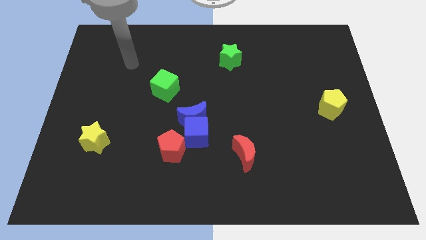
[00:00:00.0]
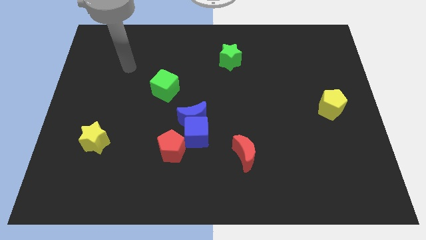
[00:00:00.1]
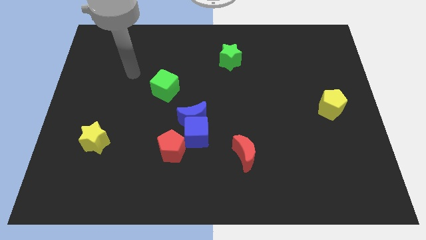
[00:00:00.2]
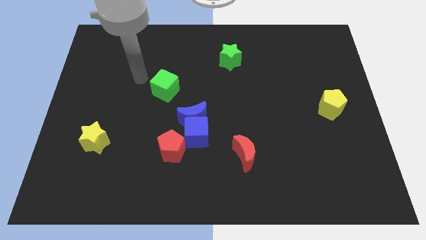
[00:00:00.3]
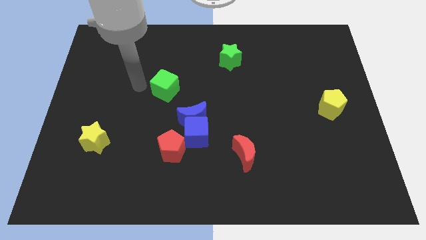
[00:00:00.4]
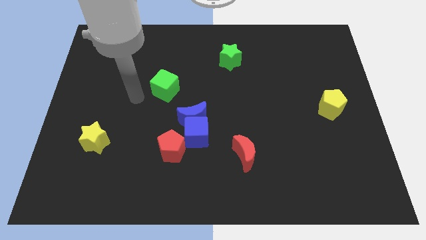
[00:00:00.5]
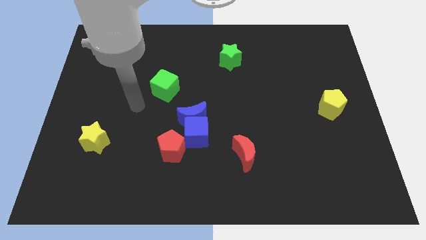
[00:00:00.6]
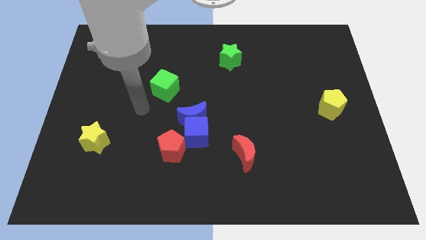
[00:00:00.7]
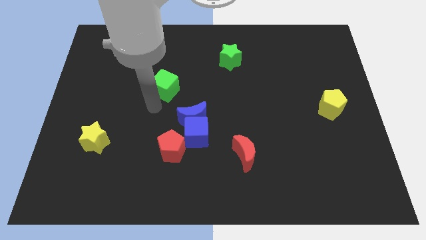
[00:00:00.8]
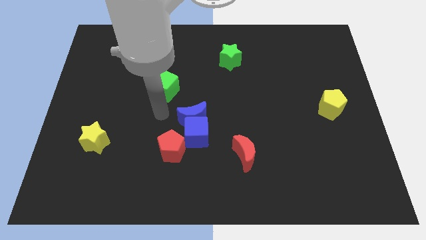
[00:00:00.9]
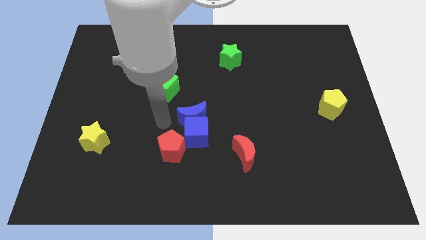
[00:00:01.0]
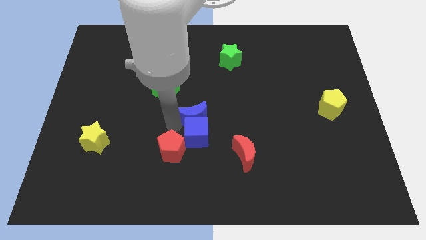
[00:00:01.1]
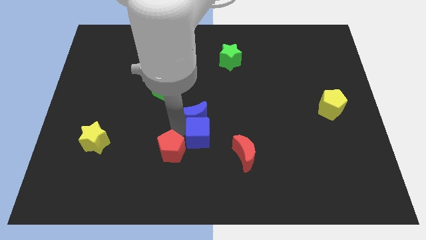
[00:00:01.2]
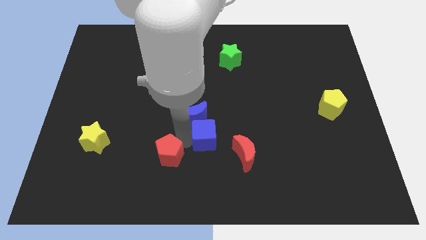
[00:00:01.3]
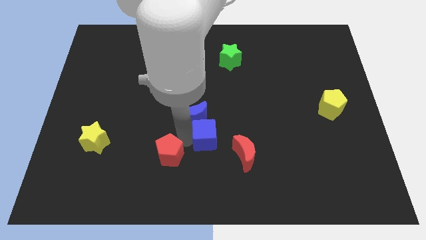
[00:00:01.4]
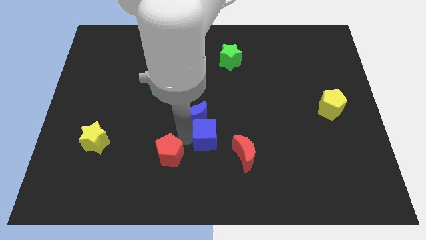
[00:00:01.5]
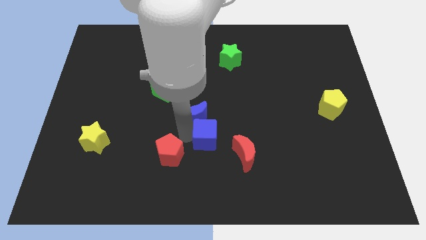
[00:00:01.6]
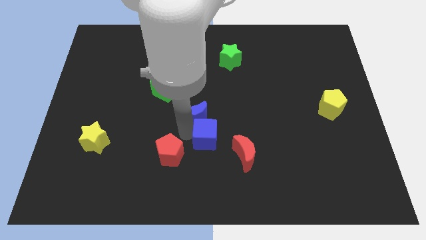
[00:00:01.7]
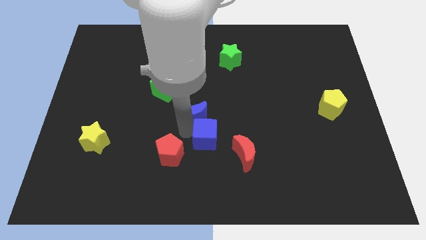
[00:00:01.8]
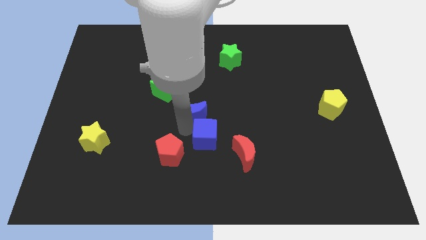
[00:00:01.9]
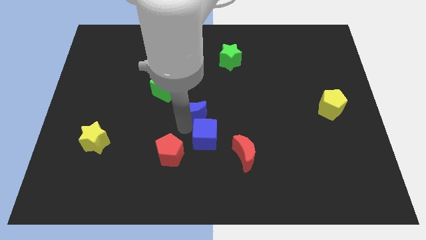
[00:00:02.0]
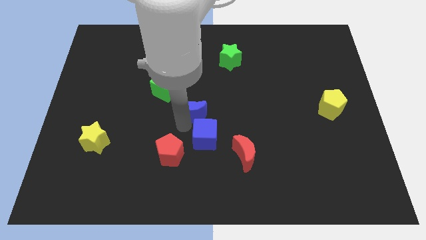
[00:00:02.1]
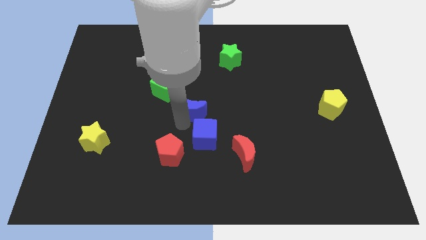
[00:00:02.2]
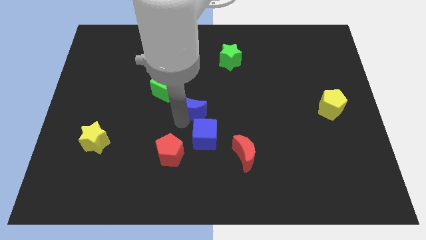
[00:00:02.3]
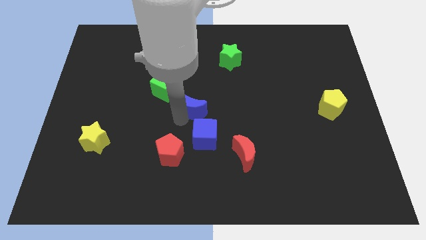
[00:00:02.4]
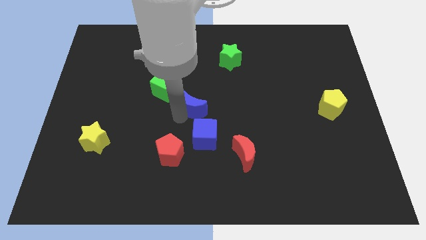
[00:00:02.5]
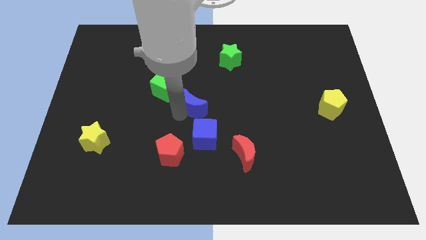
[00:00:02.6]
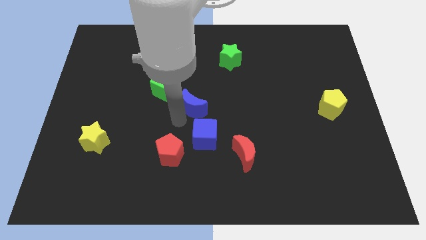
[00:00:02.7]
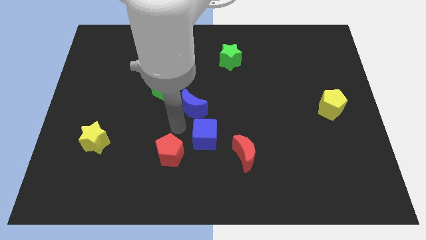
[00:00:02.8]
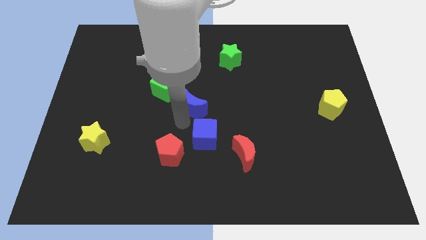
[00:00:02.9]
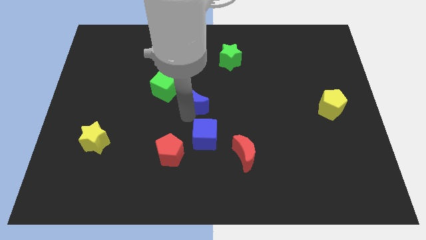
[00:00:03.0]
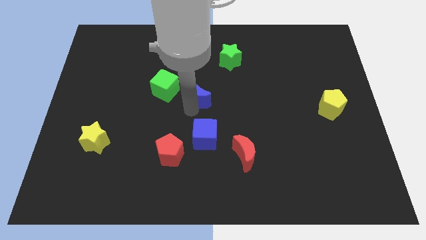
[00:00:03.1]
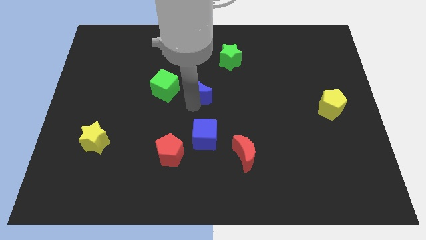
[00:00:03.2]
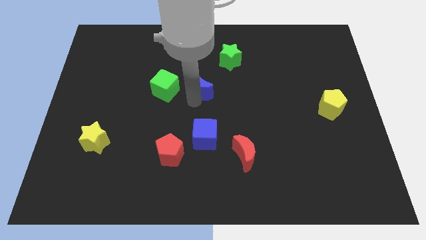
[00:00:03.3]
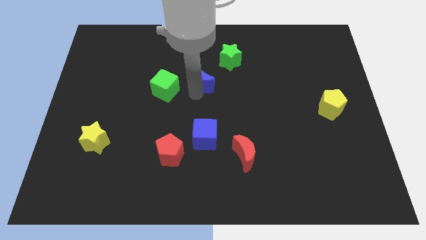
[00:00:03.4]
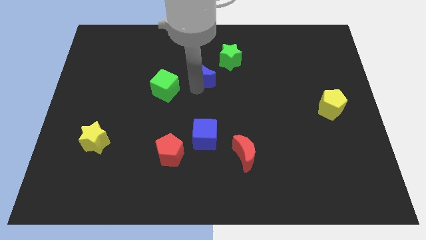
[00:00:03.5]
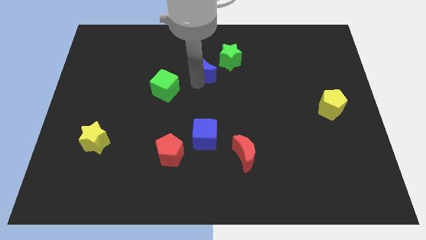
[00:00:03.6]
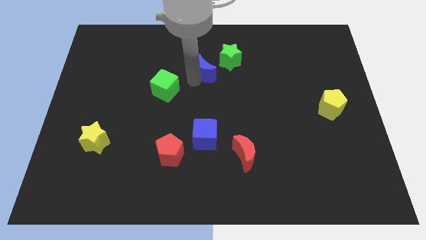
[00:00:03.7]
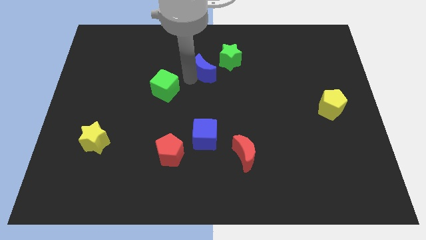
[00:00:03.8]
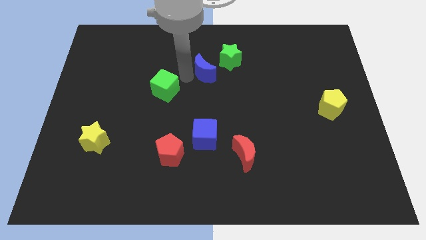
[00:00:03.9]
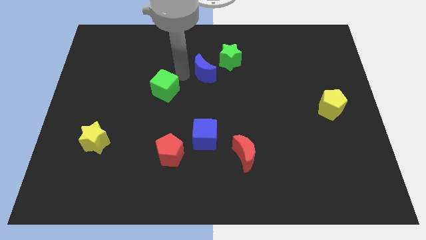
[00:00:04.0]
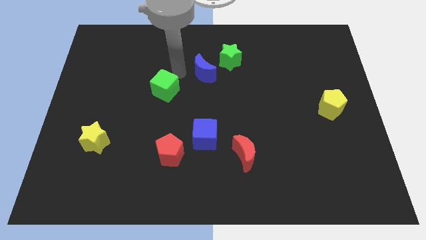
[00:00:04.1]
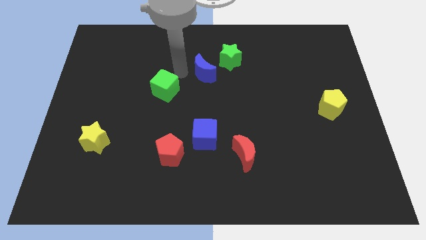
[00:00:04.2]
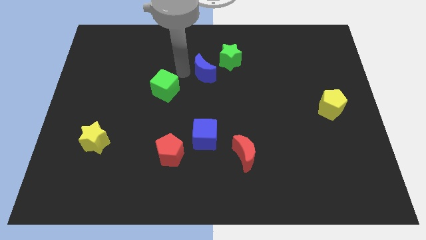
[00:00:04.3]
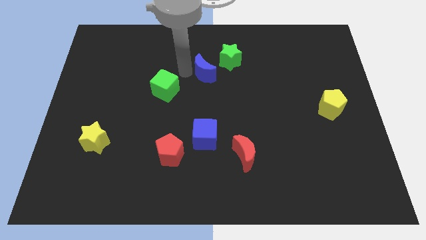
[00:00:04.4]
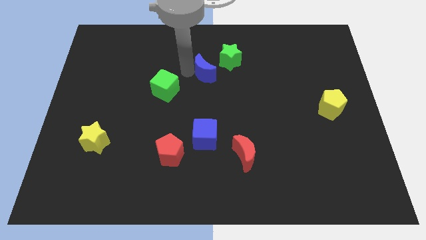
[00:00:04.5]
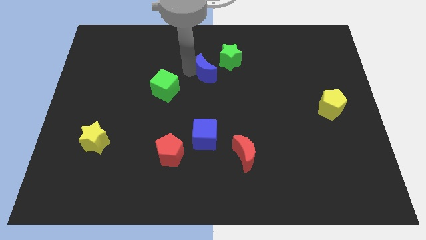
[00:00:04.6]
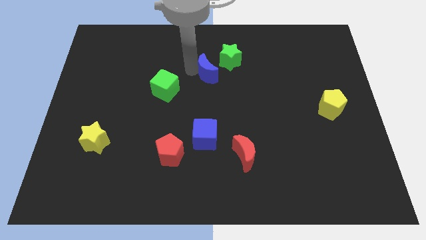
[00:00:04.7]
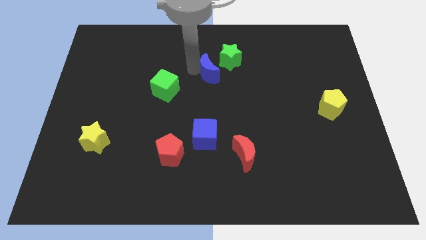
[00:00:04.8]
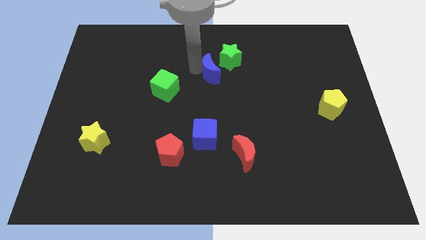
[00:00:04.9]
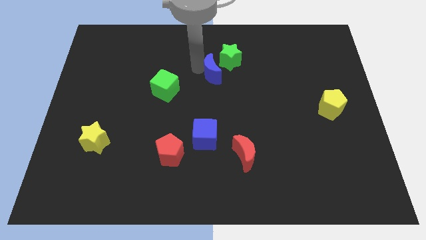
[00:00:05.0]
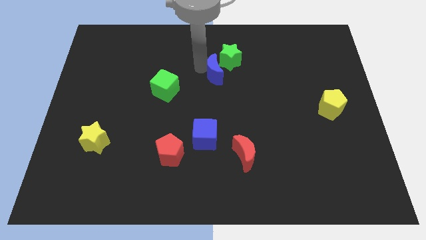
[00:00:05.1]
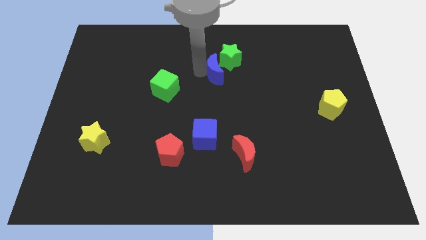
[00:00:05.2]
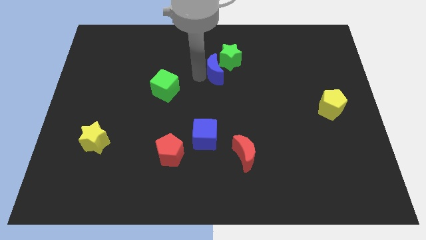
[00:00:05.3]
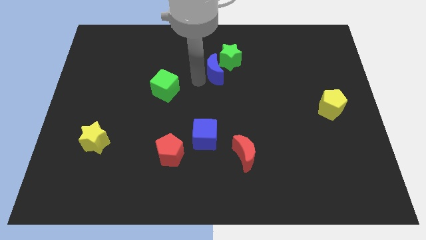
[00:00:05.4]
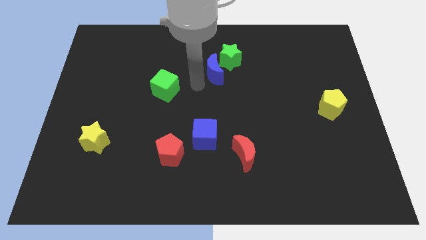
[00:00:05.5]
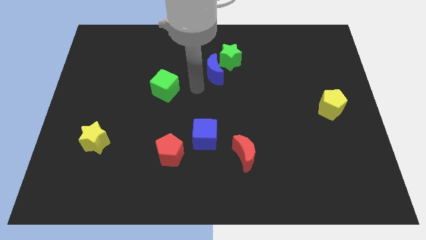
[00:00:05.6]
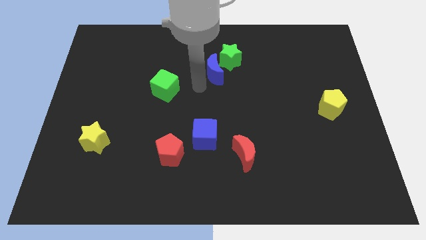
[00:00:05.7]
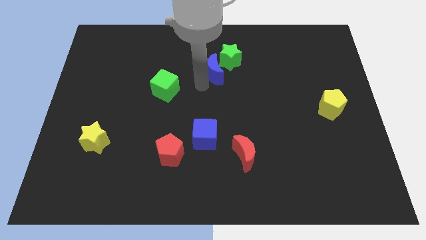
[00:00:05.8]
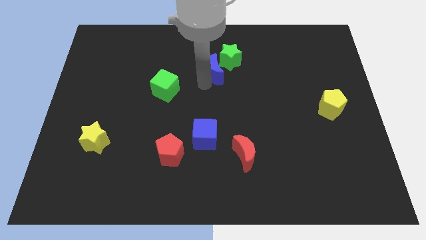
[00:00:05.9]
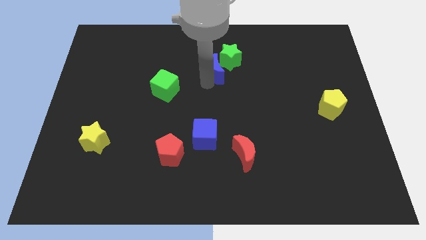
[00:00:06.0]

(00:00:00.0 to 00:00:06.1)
move the blue moon next to the green star

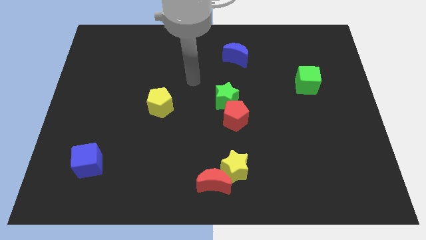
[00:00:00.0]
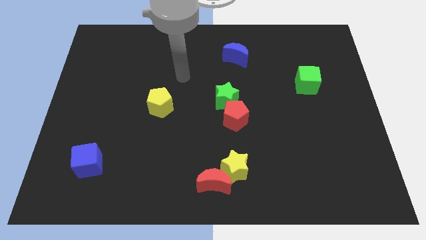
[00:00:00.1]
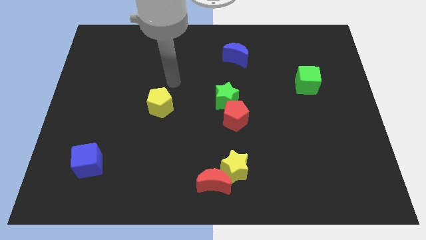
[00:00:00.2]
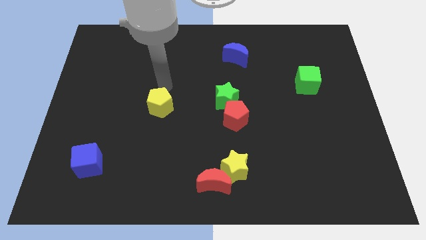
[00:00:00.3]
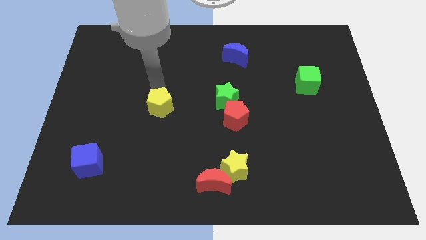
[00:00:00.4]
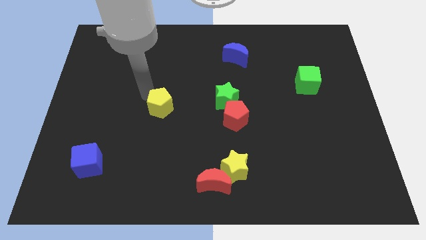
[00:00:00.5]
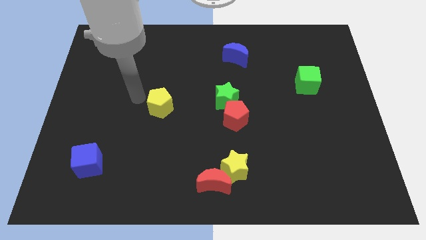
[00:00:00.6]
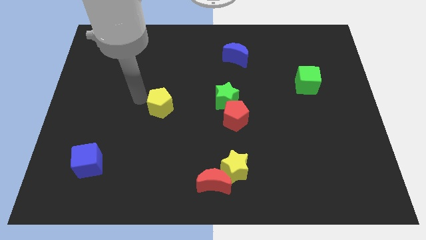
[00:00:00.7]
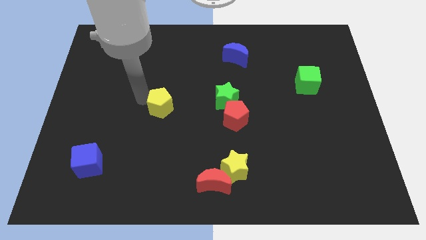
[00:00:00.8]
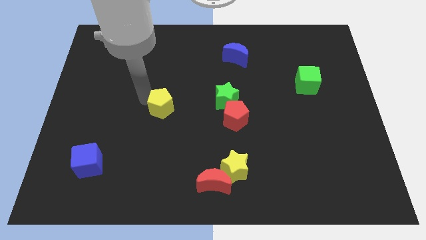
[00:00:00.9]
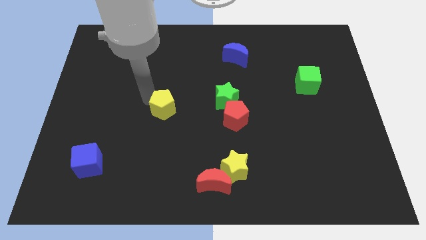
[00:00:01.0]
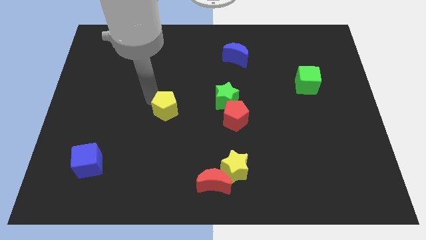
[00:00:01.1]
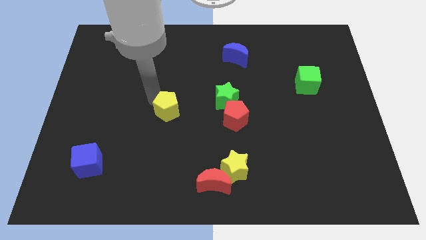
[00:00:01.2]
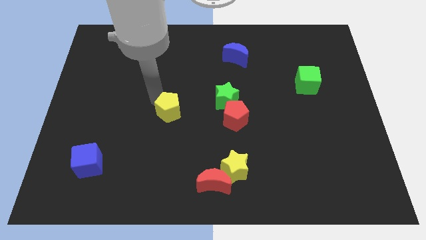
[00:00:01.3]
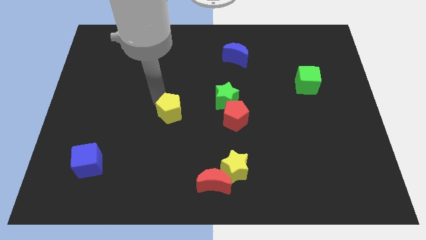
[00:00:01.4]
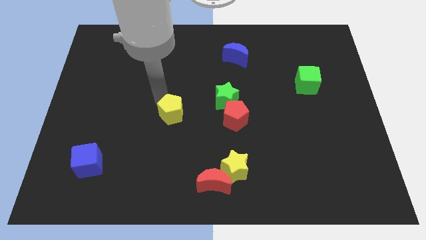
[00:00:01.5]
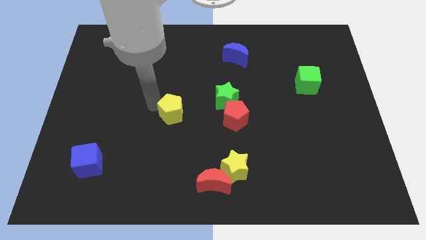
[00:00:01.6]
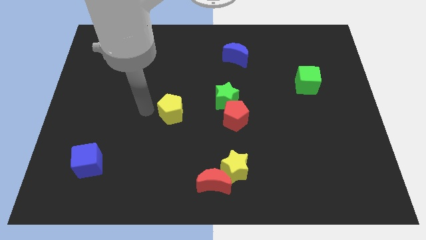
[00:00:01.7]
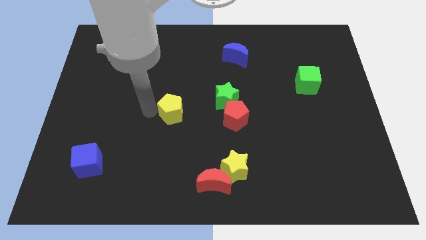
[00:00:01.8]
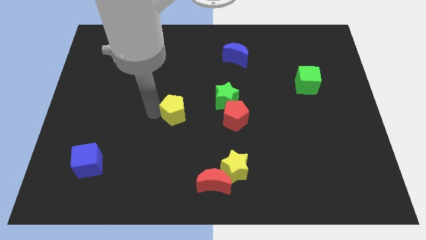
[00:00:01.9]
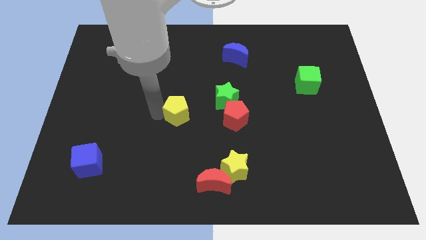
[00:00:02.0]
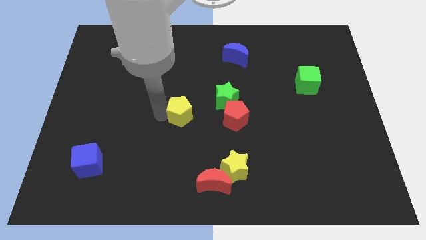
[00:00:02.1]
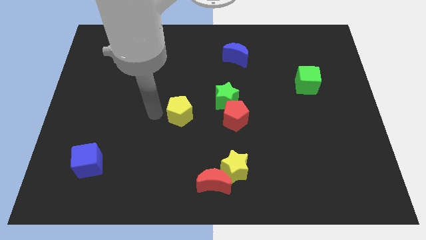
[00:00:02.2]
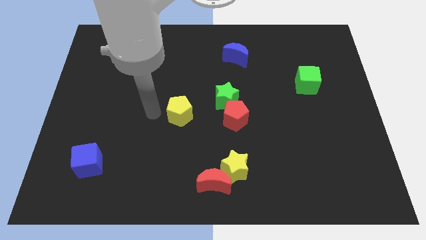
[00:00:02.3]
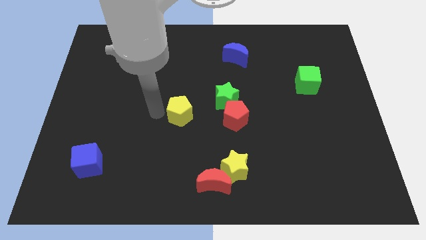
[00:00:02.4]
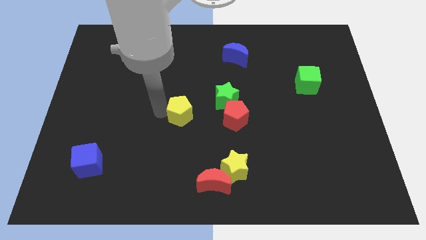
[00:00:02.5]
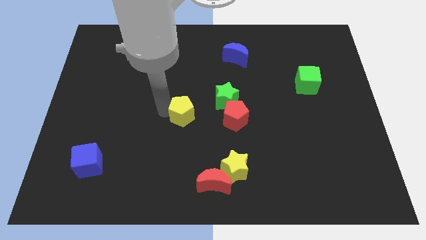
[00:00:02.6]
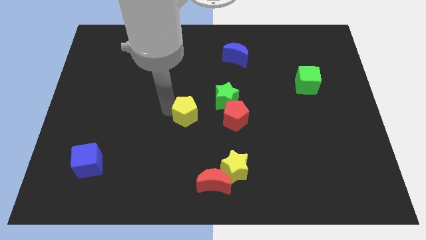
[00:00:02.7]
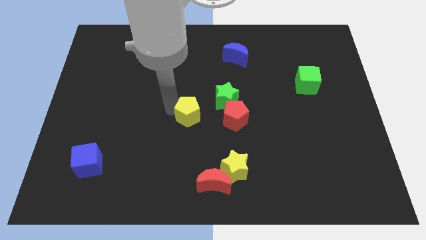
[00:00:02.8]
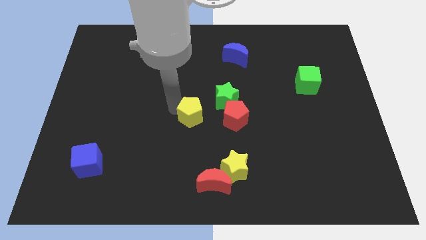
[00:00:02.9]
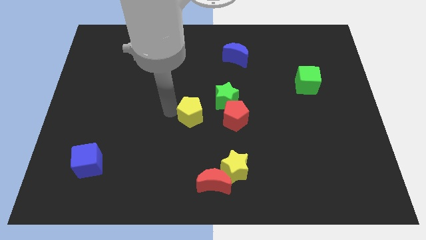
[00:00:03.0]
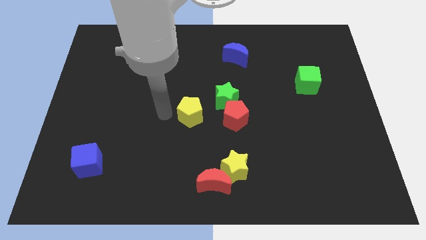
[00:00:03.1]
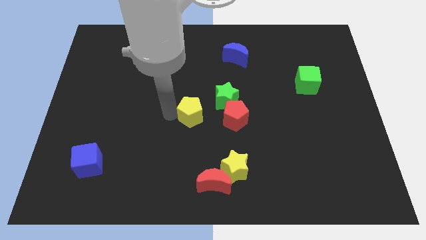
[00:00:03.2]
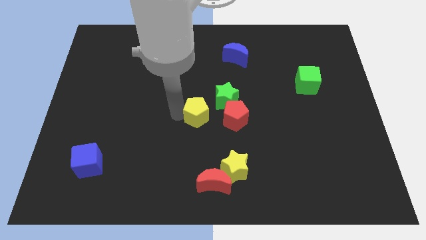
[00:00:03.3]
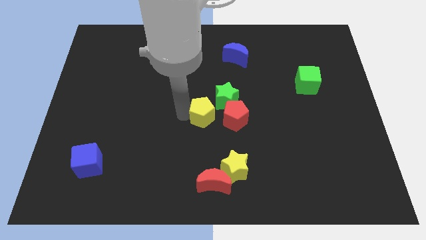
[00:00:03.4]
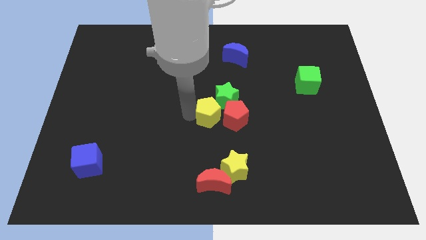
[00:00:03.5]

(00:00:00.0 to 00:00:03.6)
push the yellow pentagon to the red pentagon
